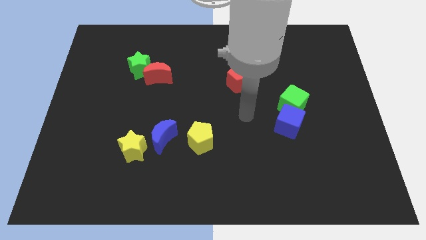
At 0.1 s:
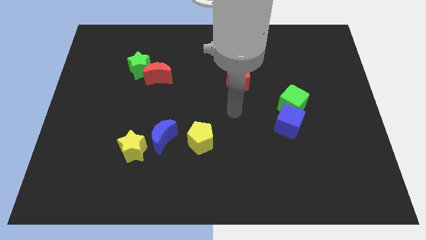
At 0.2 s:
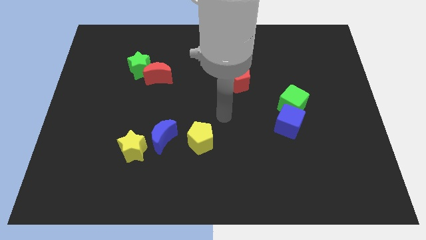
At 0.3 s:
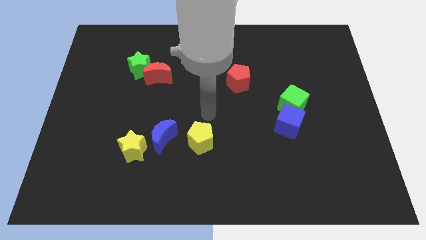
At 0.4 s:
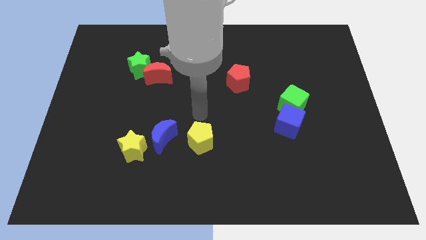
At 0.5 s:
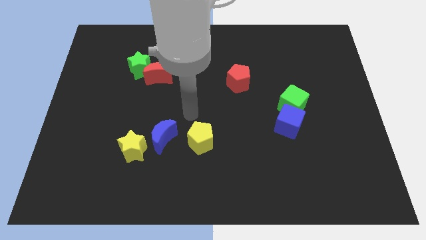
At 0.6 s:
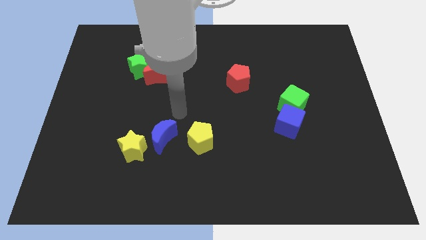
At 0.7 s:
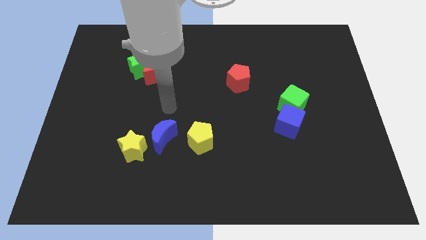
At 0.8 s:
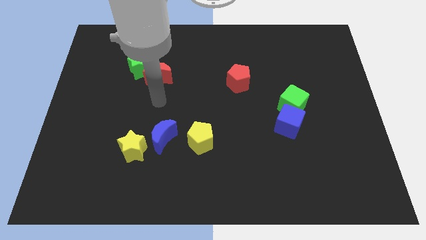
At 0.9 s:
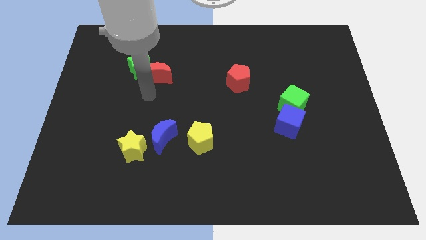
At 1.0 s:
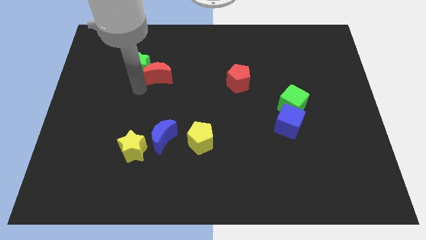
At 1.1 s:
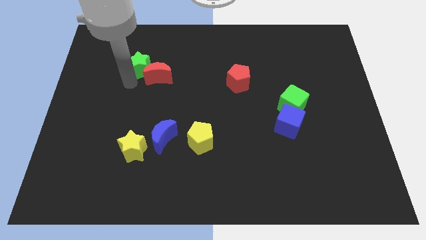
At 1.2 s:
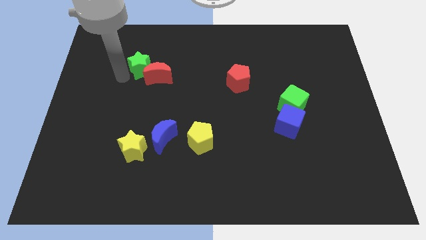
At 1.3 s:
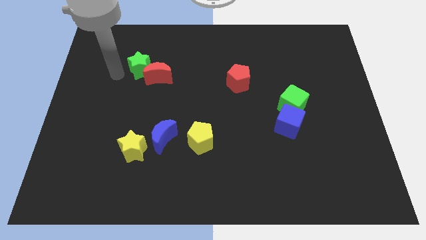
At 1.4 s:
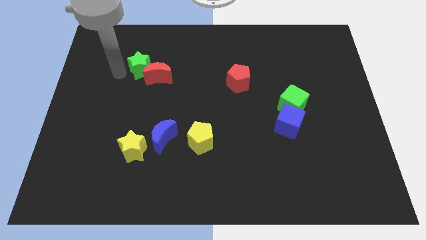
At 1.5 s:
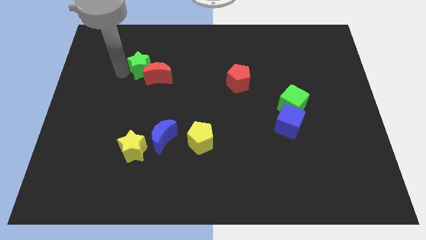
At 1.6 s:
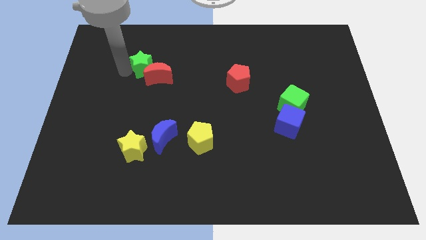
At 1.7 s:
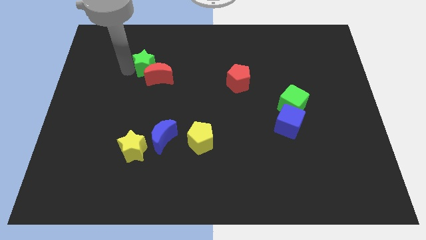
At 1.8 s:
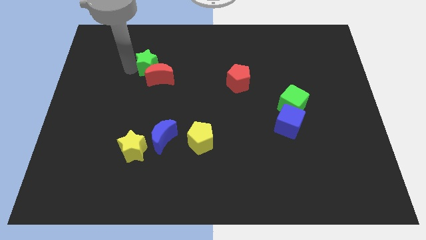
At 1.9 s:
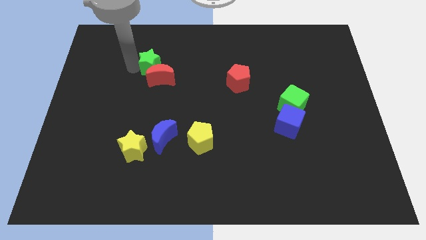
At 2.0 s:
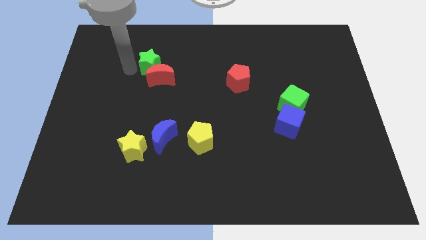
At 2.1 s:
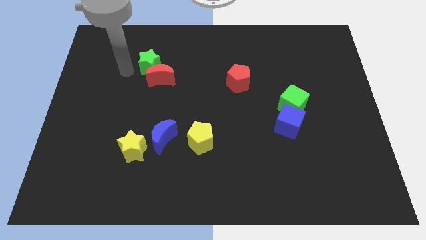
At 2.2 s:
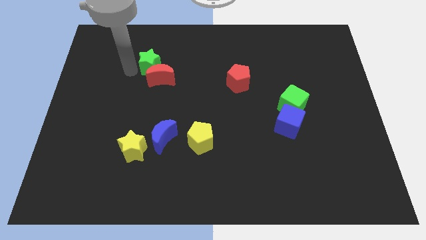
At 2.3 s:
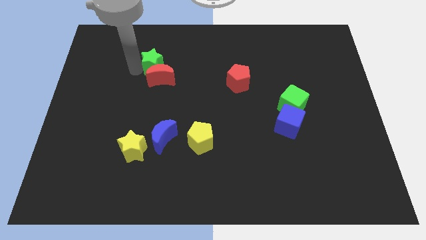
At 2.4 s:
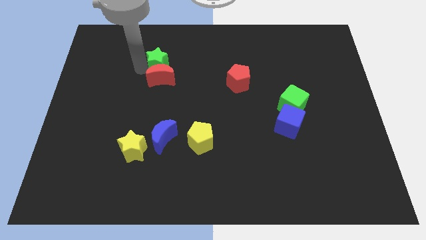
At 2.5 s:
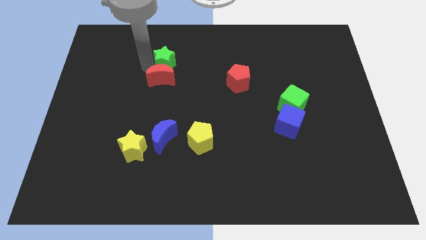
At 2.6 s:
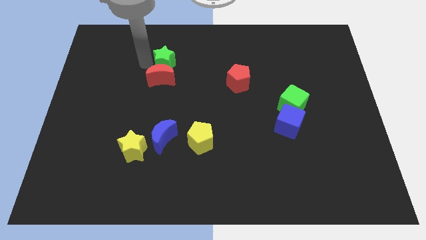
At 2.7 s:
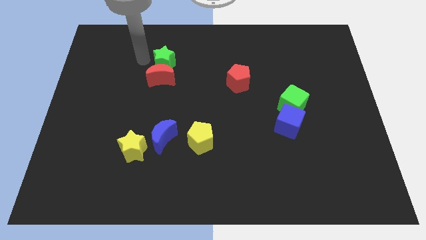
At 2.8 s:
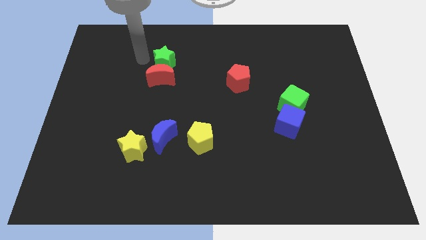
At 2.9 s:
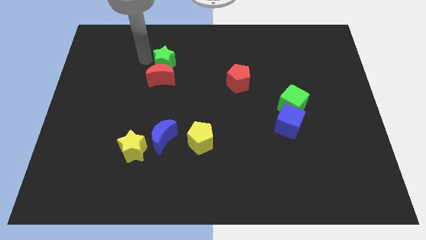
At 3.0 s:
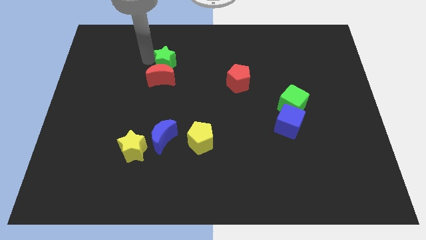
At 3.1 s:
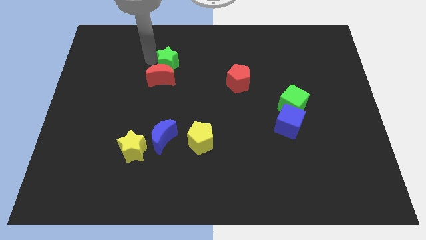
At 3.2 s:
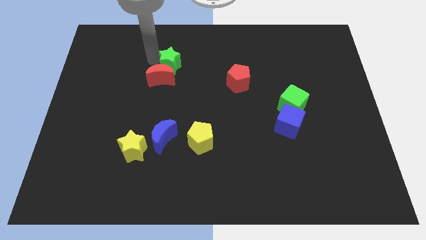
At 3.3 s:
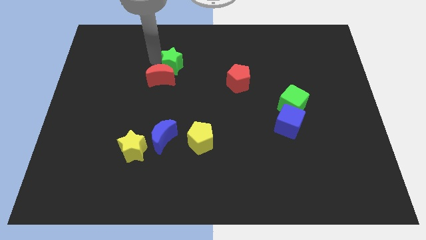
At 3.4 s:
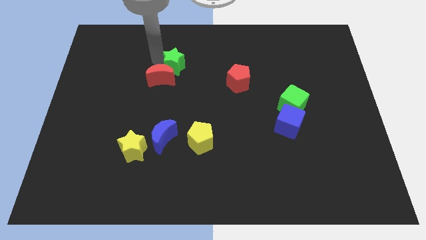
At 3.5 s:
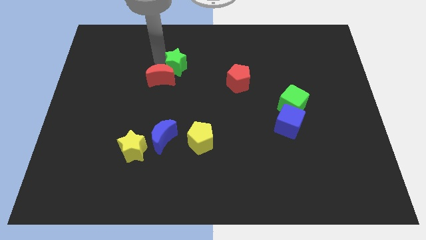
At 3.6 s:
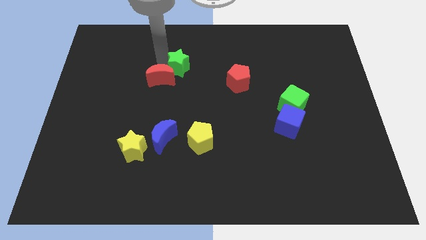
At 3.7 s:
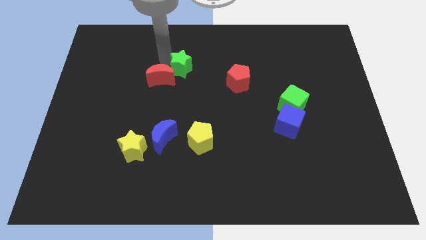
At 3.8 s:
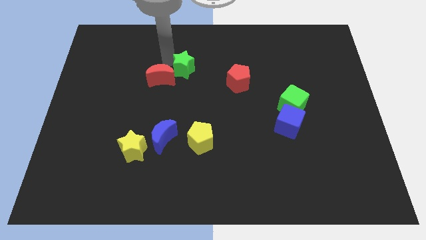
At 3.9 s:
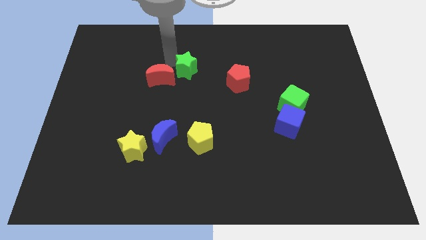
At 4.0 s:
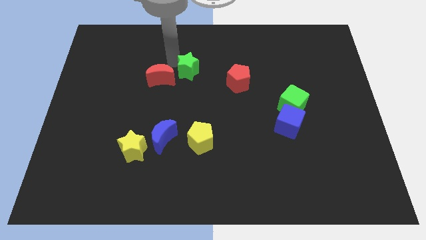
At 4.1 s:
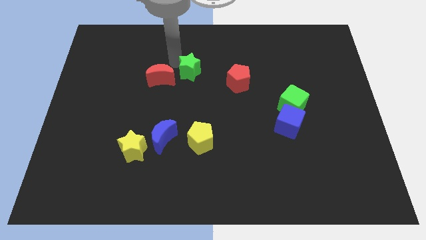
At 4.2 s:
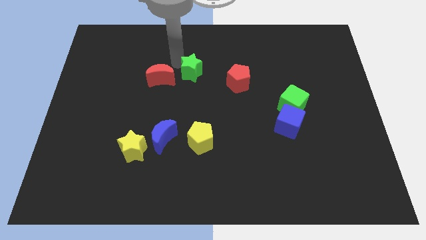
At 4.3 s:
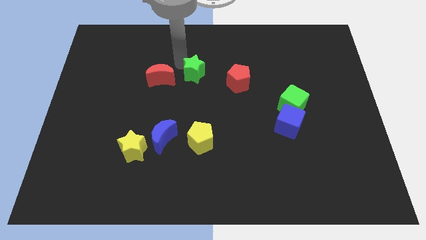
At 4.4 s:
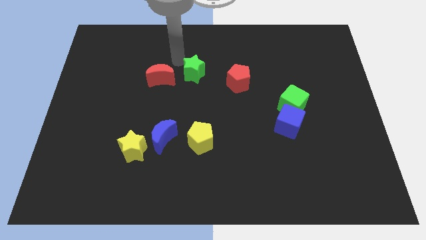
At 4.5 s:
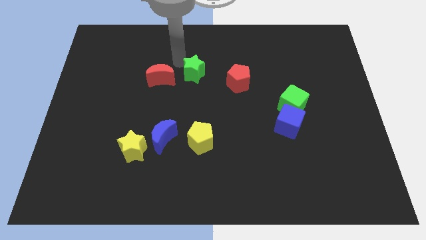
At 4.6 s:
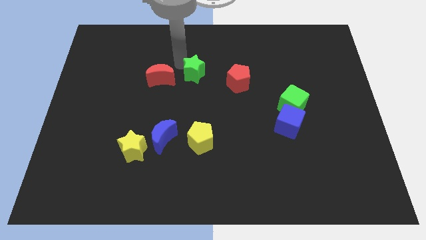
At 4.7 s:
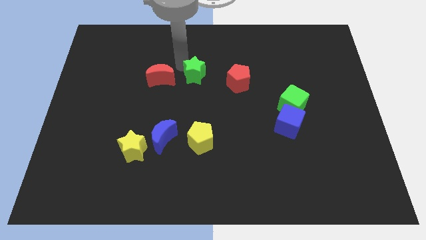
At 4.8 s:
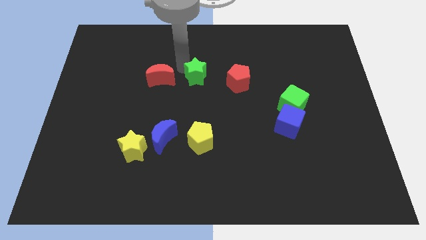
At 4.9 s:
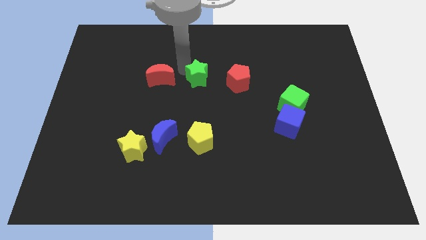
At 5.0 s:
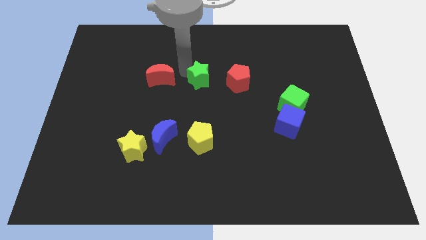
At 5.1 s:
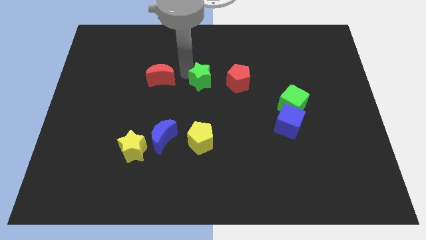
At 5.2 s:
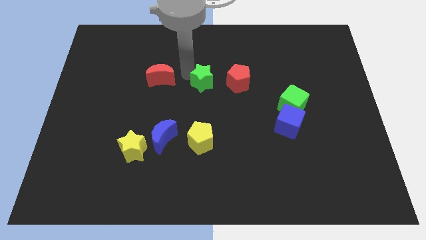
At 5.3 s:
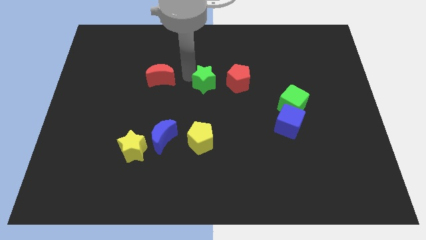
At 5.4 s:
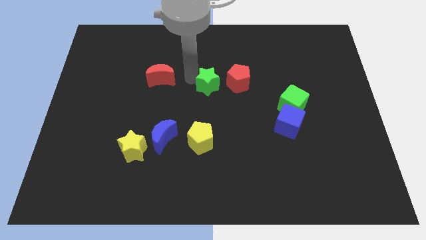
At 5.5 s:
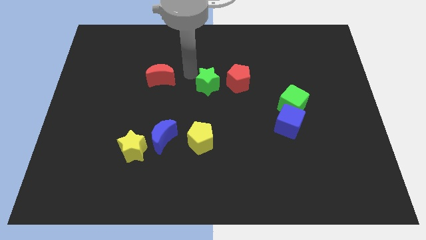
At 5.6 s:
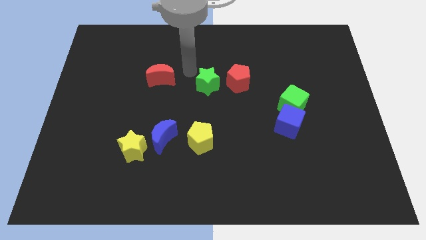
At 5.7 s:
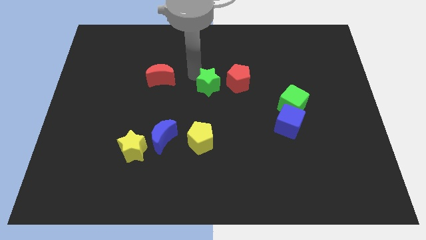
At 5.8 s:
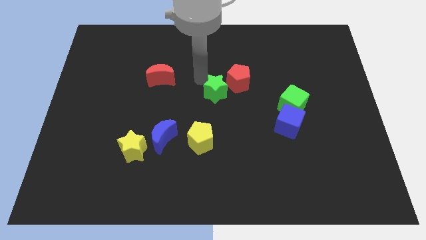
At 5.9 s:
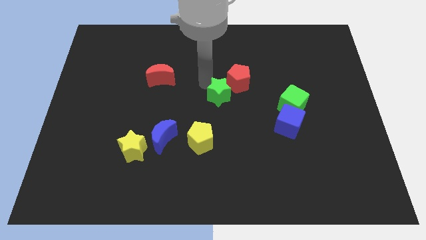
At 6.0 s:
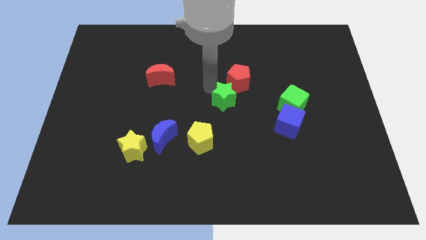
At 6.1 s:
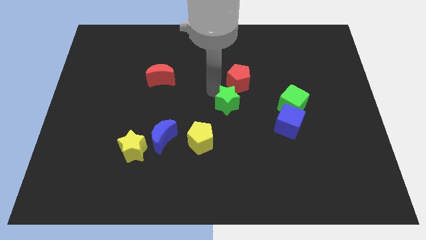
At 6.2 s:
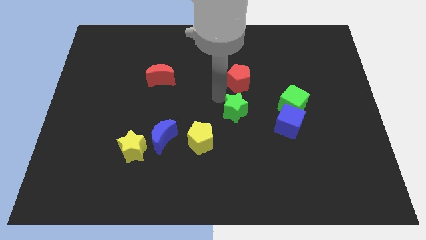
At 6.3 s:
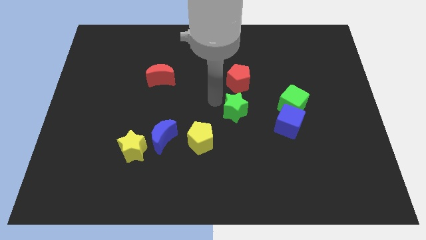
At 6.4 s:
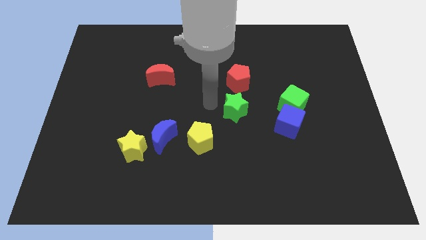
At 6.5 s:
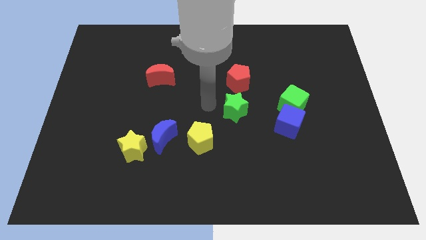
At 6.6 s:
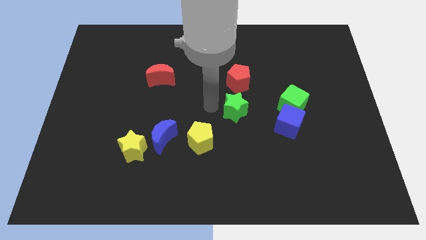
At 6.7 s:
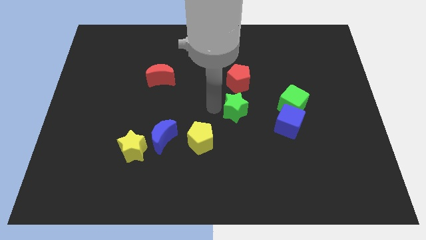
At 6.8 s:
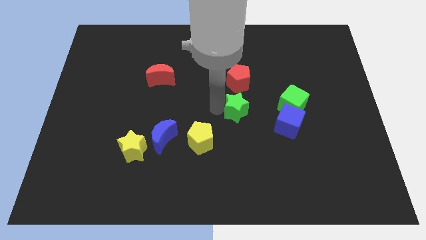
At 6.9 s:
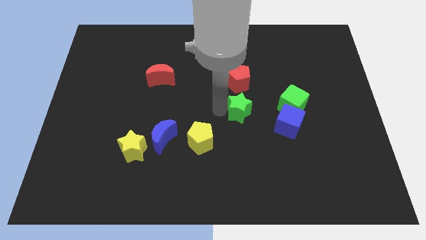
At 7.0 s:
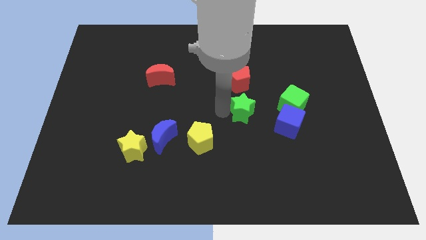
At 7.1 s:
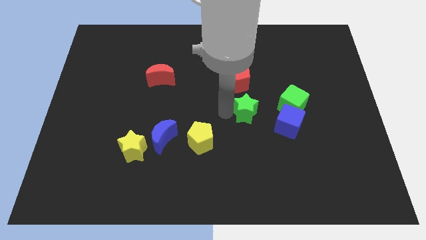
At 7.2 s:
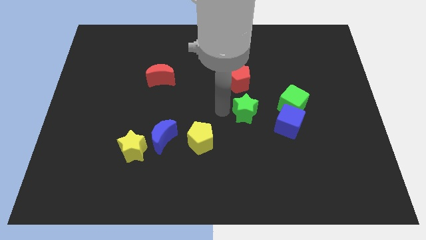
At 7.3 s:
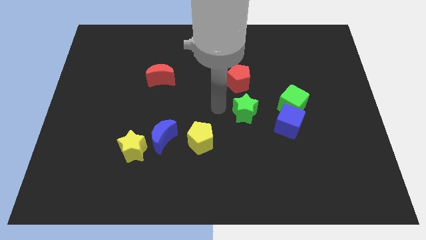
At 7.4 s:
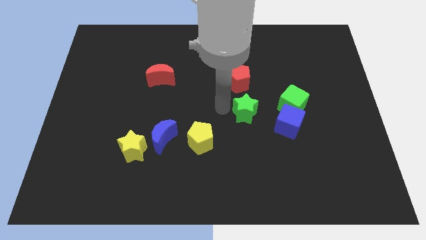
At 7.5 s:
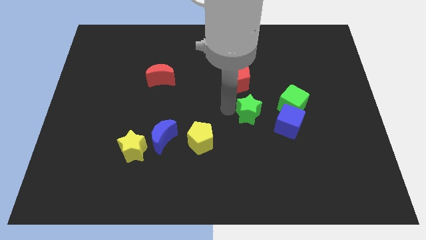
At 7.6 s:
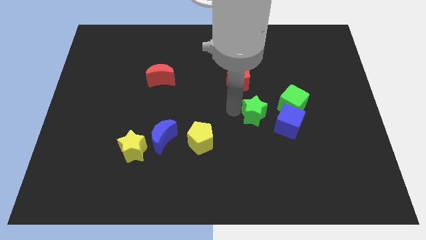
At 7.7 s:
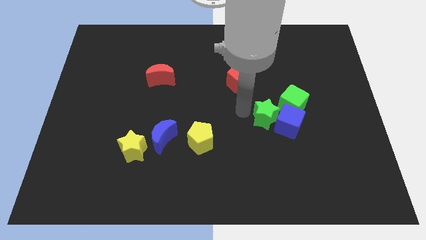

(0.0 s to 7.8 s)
push the green star next to the blue cube

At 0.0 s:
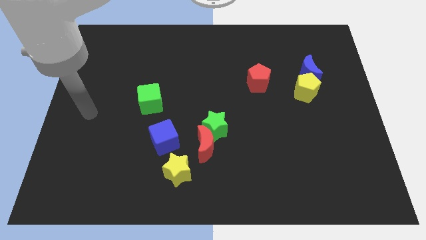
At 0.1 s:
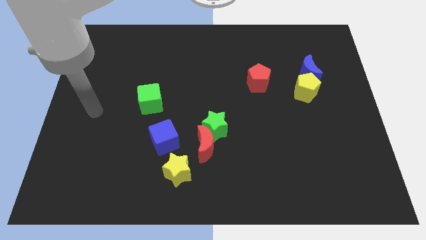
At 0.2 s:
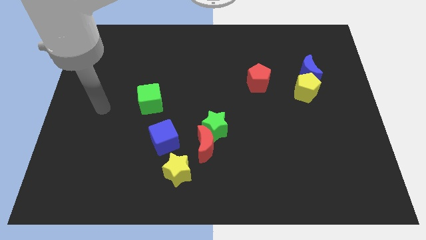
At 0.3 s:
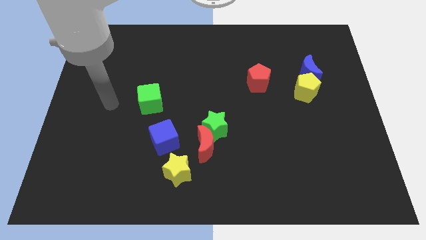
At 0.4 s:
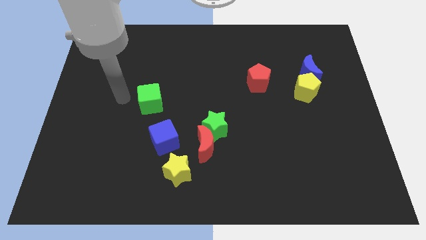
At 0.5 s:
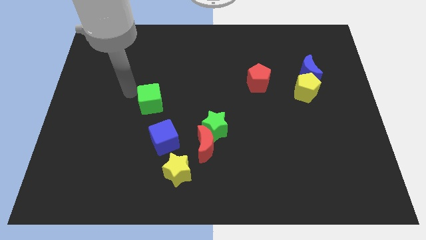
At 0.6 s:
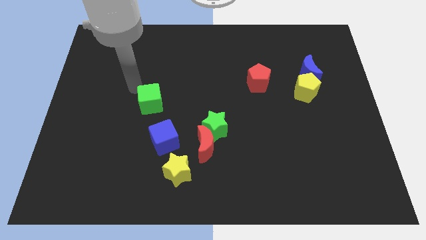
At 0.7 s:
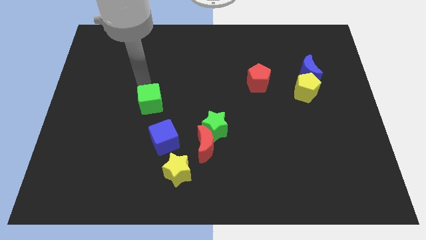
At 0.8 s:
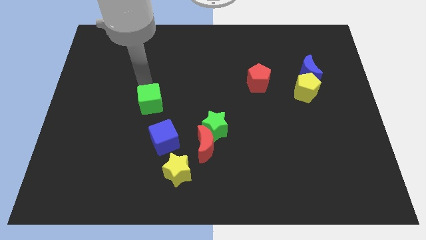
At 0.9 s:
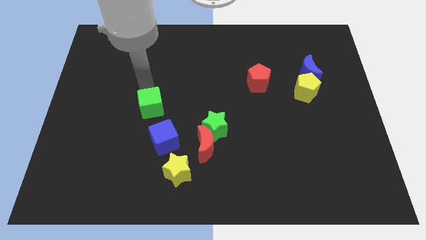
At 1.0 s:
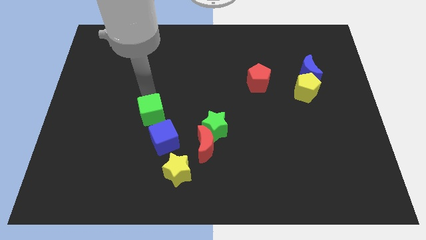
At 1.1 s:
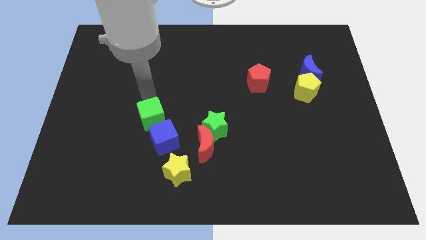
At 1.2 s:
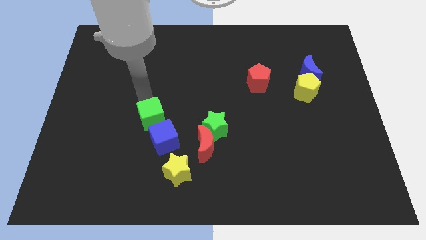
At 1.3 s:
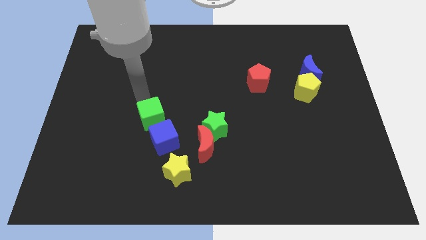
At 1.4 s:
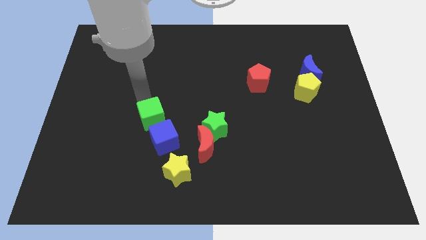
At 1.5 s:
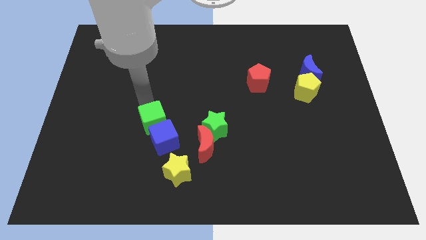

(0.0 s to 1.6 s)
slide the green cube next to the blue cube
